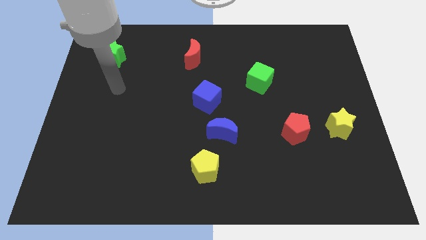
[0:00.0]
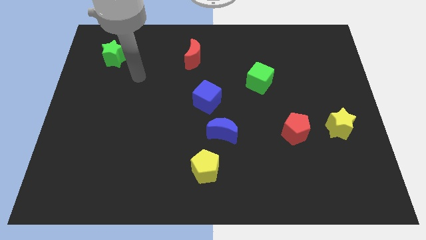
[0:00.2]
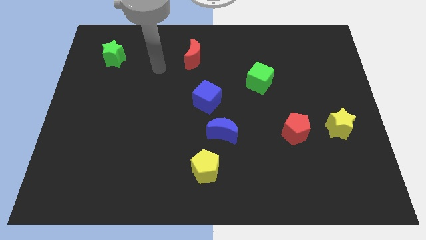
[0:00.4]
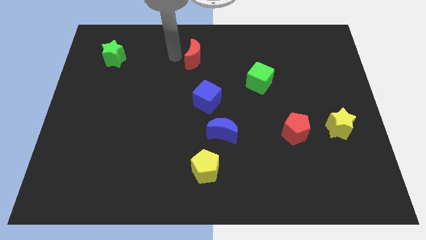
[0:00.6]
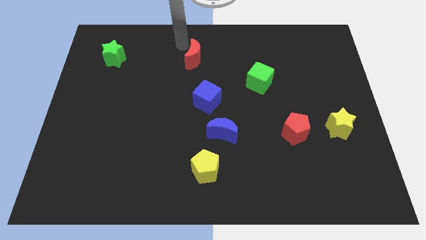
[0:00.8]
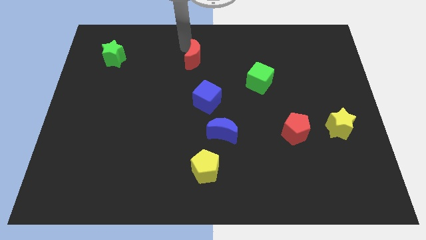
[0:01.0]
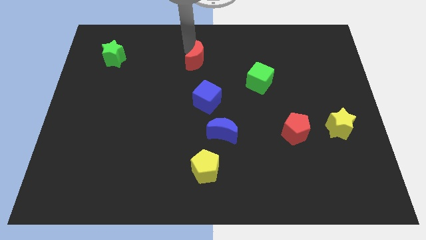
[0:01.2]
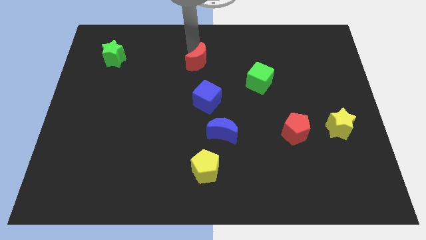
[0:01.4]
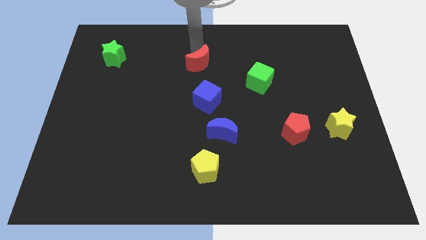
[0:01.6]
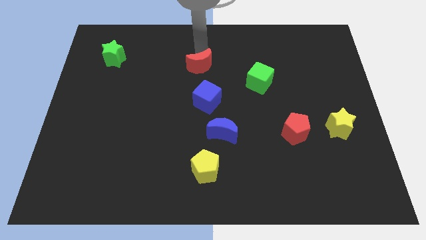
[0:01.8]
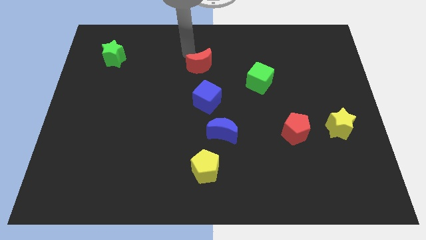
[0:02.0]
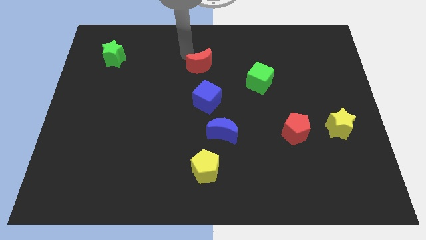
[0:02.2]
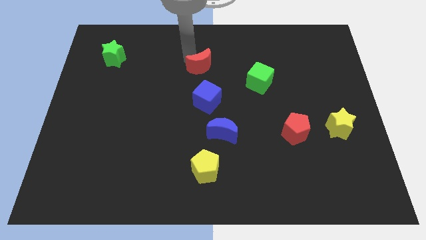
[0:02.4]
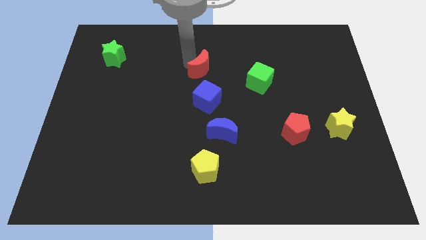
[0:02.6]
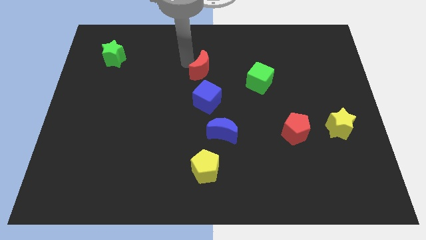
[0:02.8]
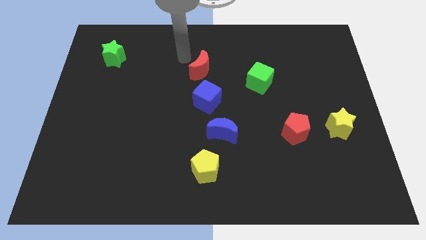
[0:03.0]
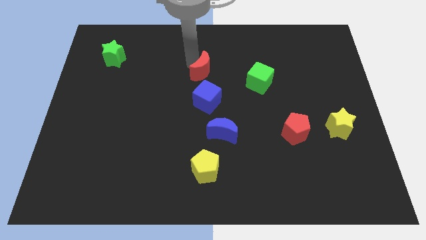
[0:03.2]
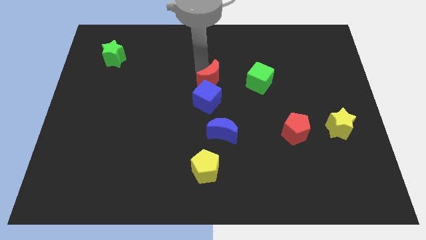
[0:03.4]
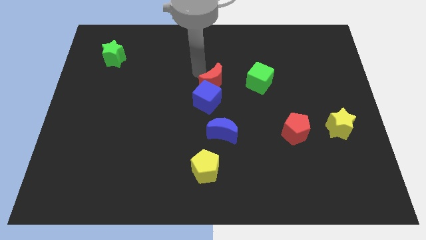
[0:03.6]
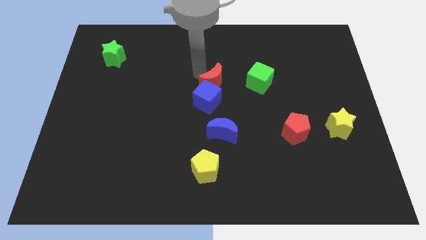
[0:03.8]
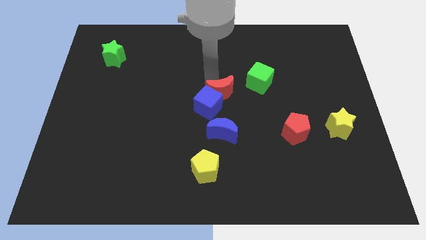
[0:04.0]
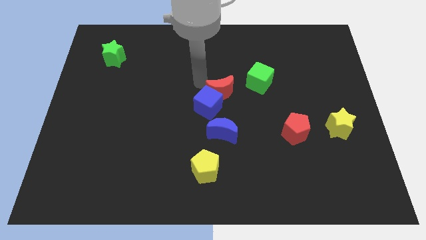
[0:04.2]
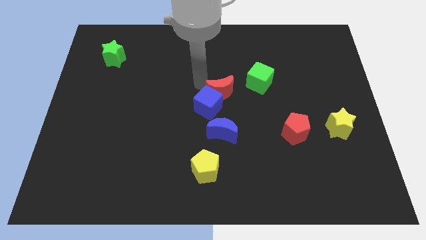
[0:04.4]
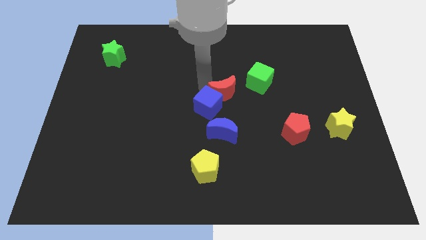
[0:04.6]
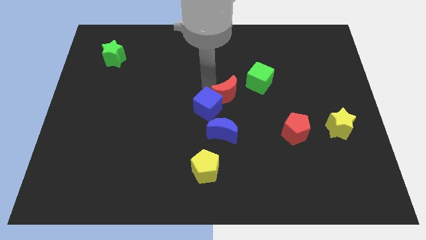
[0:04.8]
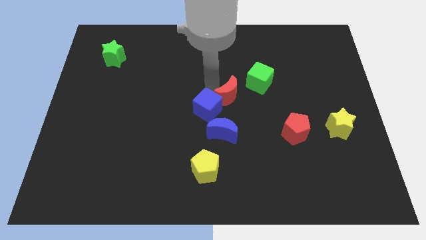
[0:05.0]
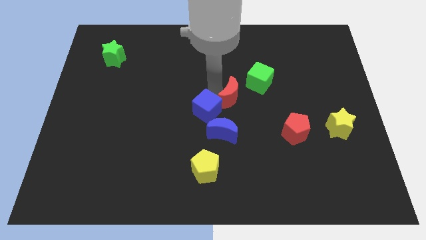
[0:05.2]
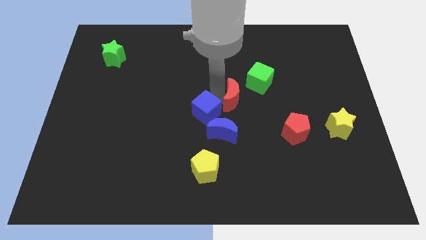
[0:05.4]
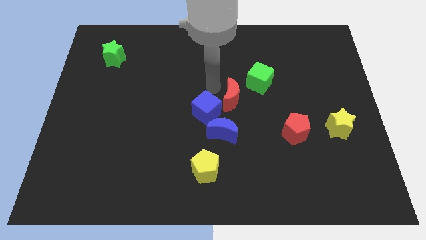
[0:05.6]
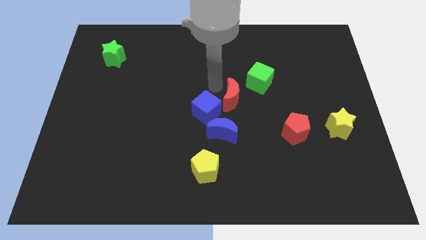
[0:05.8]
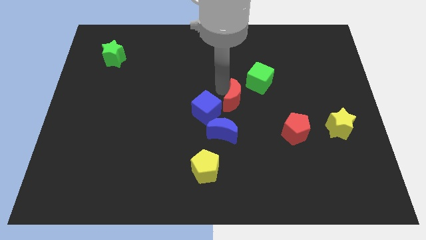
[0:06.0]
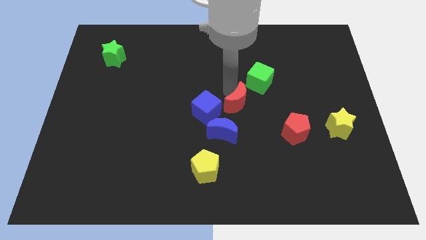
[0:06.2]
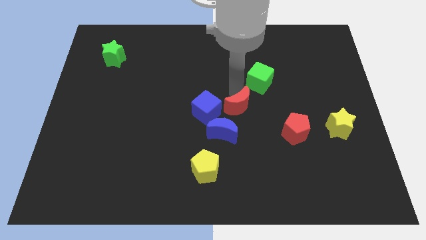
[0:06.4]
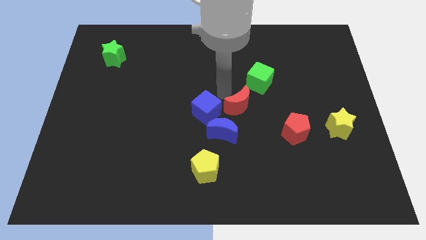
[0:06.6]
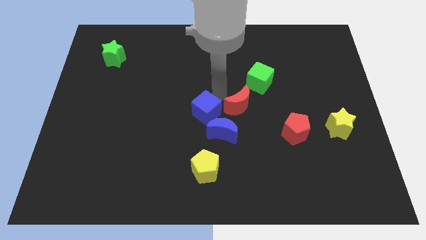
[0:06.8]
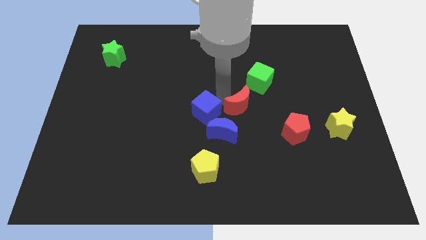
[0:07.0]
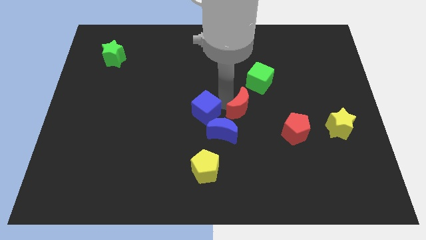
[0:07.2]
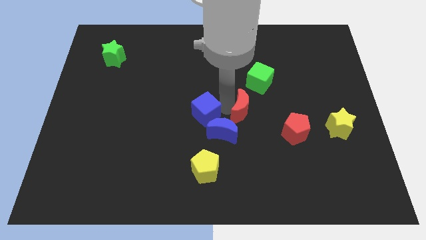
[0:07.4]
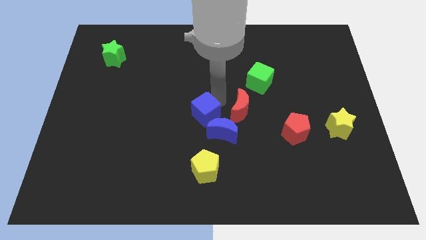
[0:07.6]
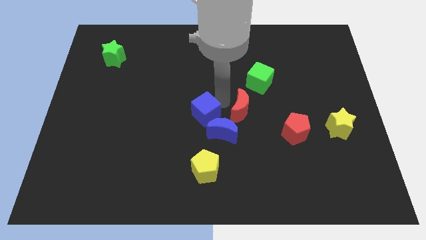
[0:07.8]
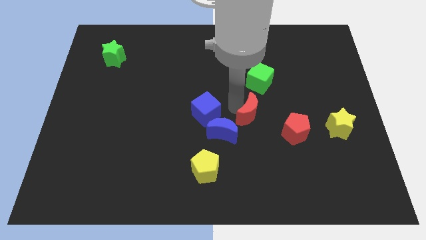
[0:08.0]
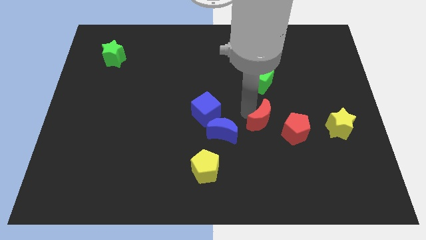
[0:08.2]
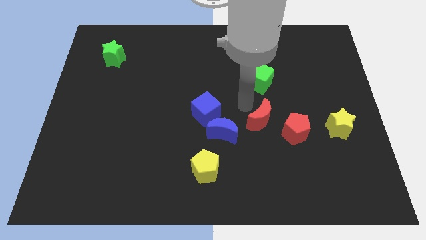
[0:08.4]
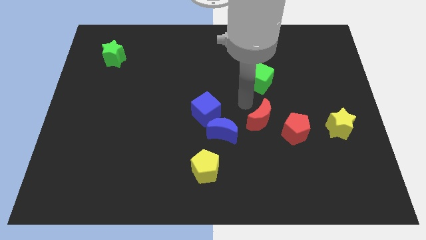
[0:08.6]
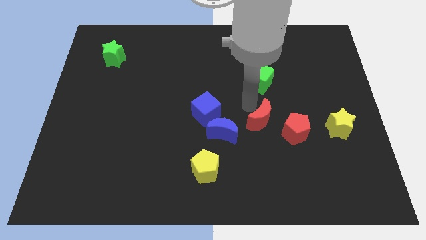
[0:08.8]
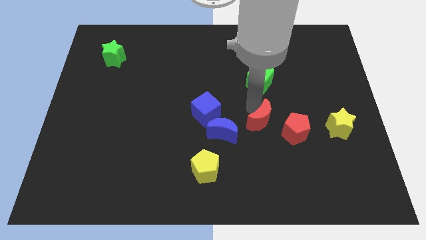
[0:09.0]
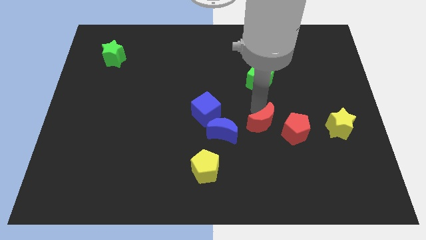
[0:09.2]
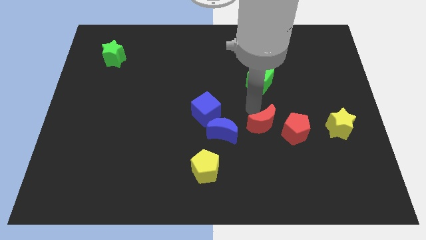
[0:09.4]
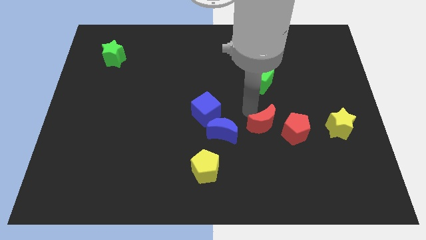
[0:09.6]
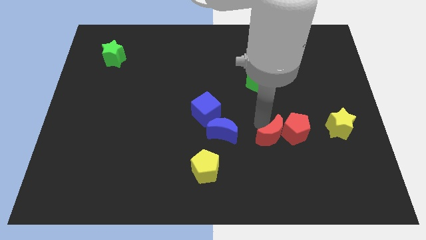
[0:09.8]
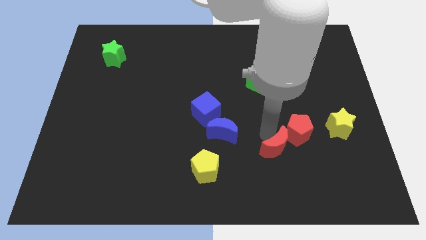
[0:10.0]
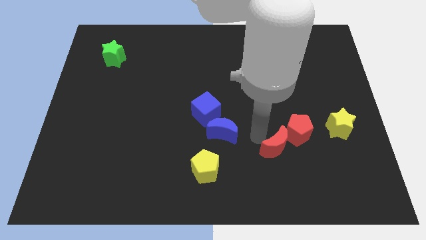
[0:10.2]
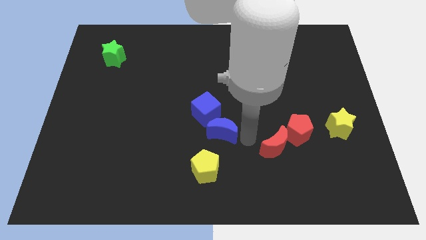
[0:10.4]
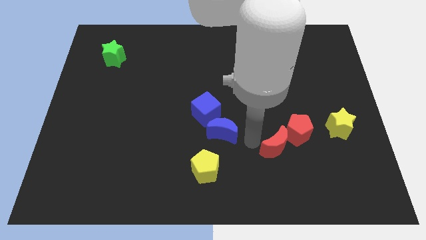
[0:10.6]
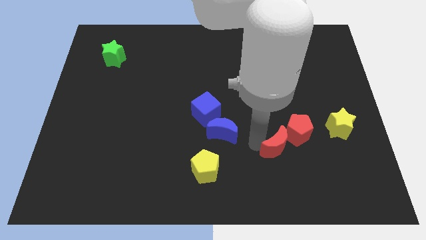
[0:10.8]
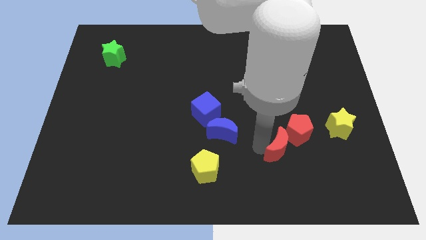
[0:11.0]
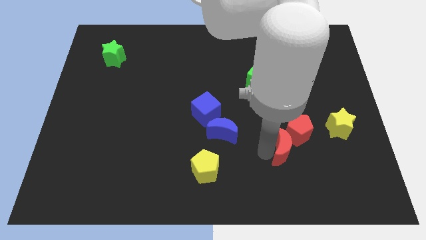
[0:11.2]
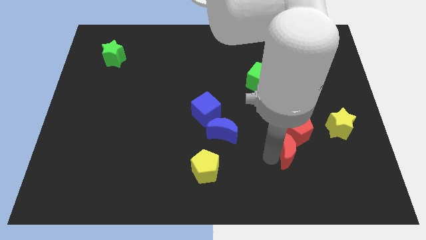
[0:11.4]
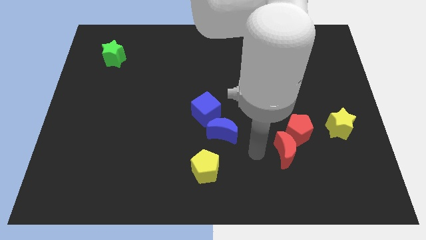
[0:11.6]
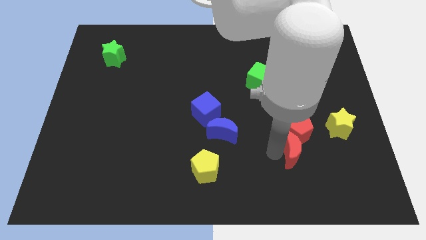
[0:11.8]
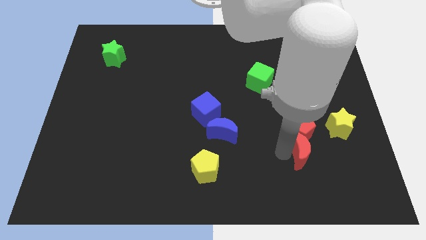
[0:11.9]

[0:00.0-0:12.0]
move the red moon to the bottom right of the red pentagon
